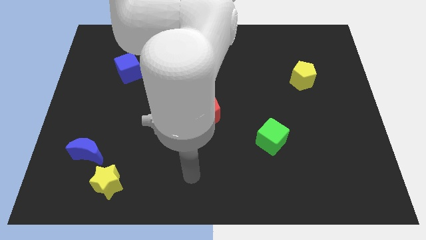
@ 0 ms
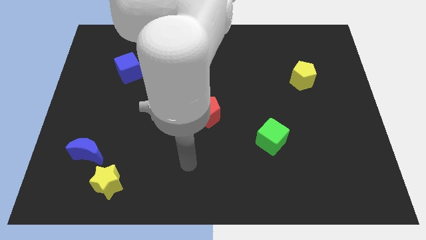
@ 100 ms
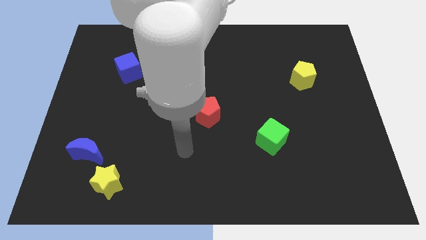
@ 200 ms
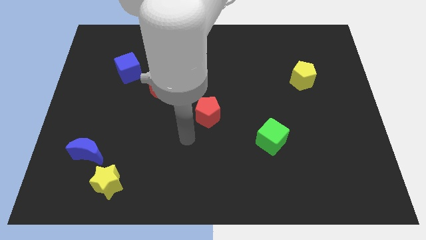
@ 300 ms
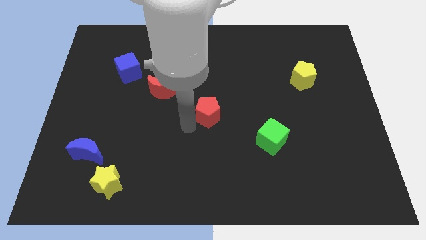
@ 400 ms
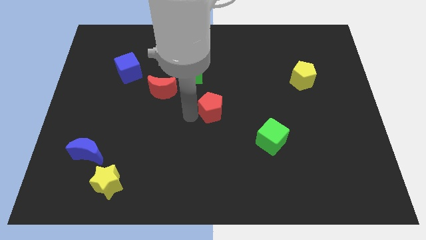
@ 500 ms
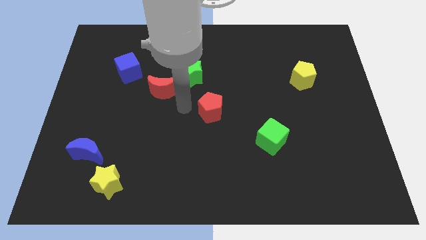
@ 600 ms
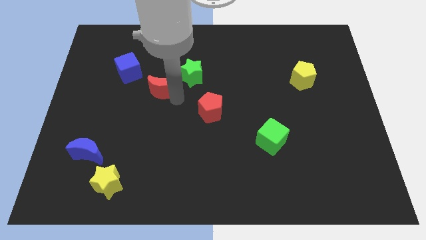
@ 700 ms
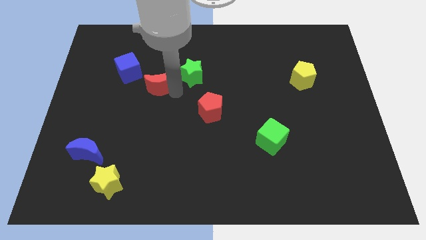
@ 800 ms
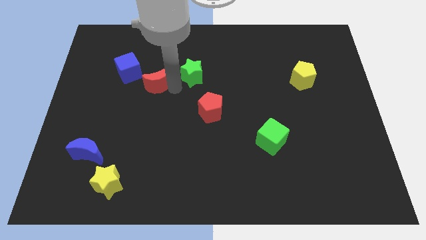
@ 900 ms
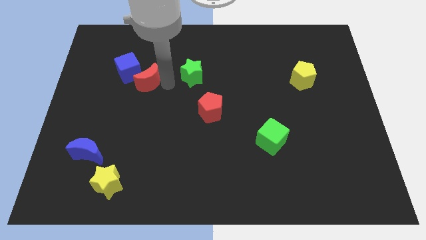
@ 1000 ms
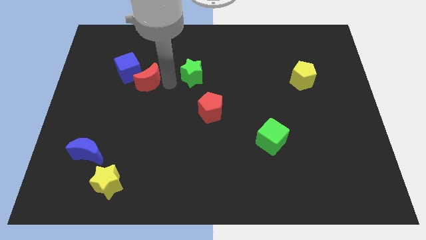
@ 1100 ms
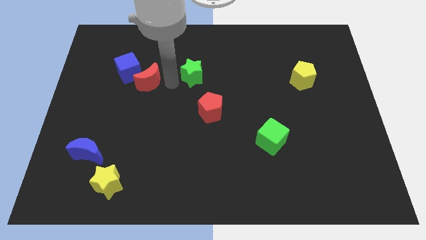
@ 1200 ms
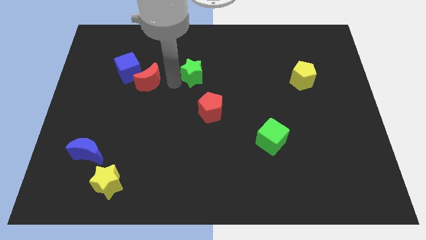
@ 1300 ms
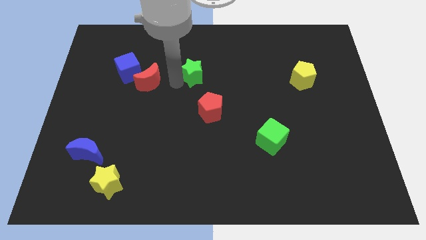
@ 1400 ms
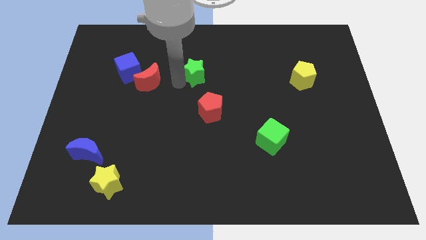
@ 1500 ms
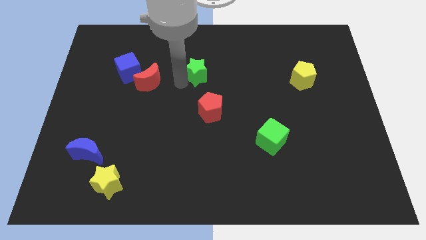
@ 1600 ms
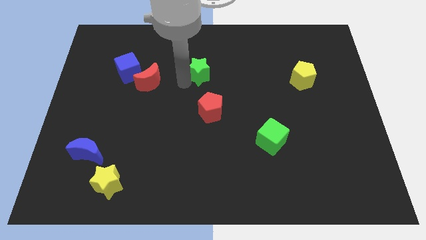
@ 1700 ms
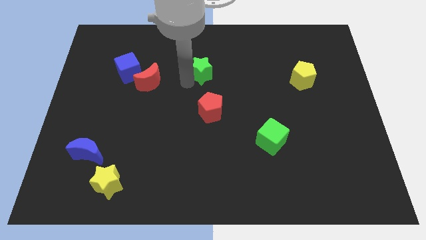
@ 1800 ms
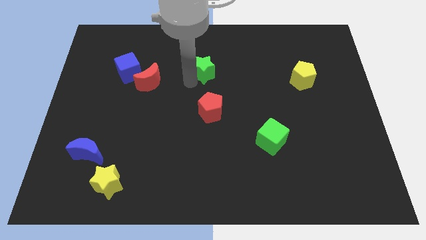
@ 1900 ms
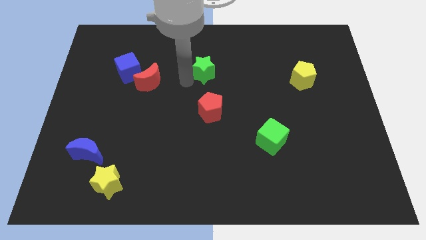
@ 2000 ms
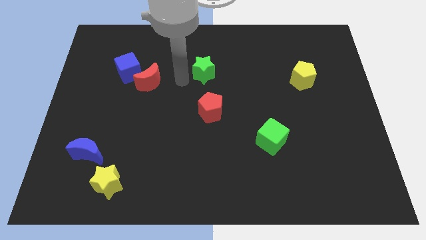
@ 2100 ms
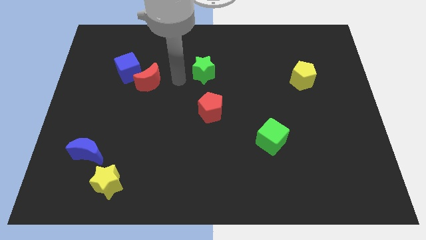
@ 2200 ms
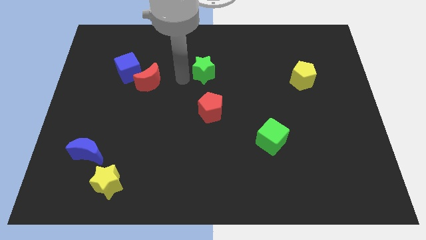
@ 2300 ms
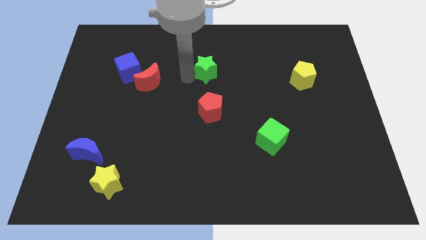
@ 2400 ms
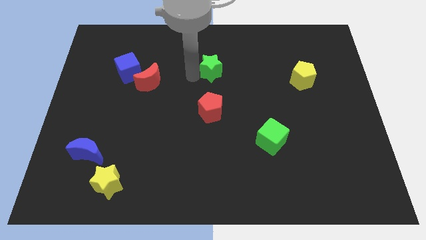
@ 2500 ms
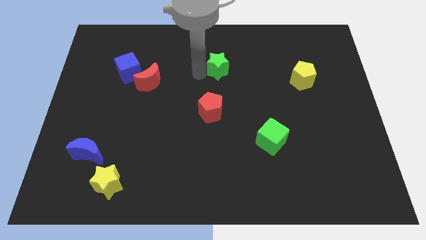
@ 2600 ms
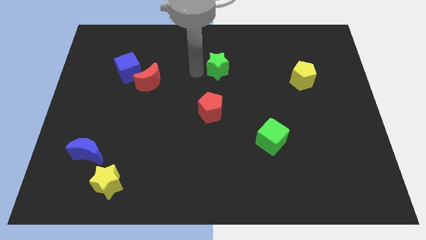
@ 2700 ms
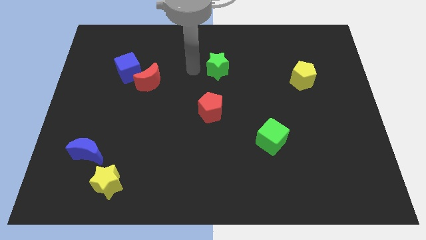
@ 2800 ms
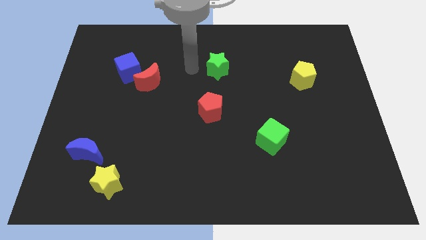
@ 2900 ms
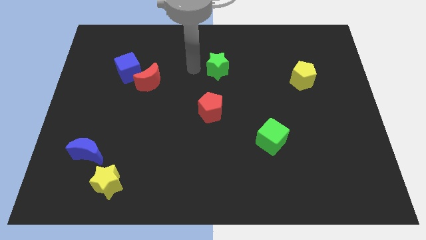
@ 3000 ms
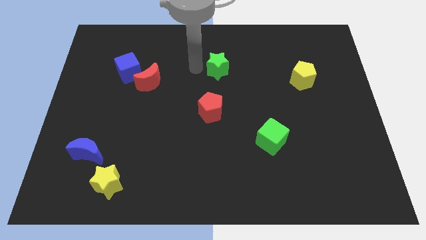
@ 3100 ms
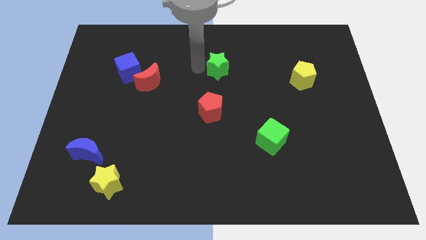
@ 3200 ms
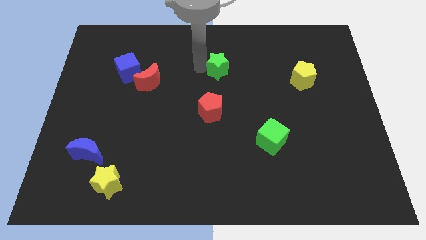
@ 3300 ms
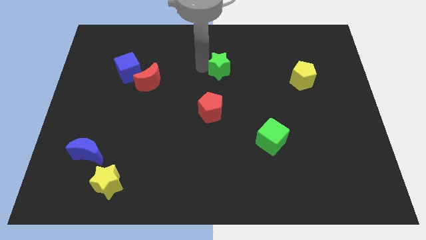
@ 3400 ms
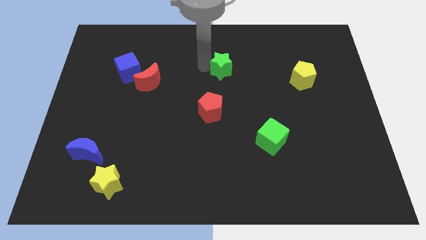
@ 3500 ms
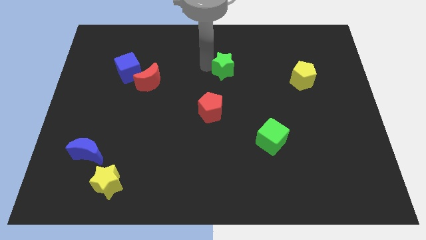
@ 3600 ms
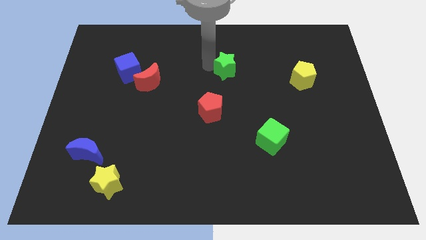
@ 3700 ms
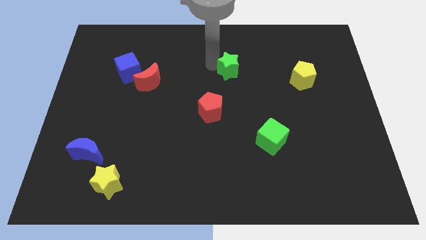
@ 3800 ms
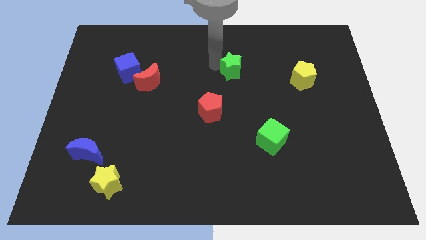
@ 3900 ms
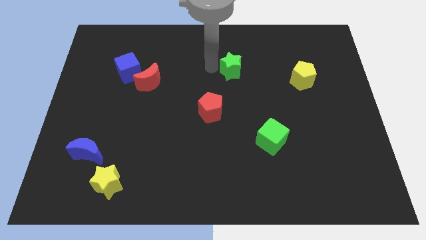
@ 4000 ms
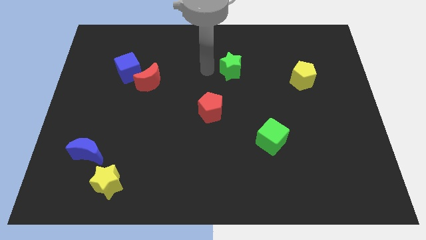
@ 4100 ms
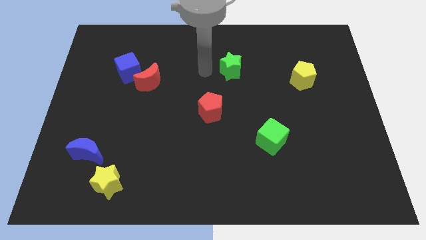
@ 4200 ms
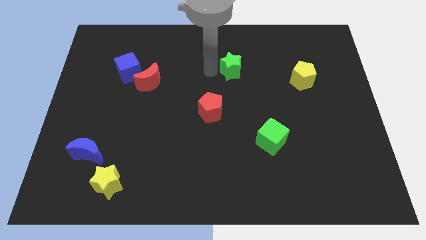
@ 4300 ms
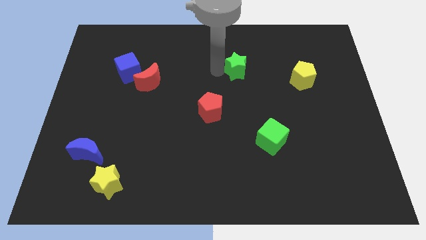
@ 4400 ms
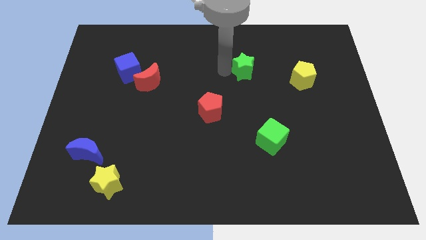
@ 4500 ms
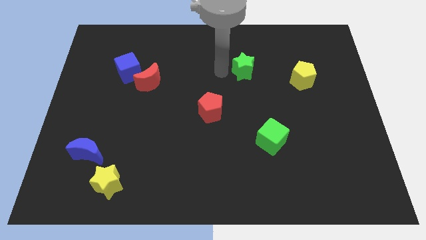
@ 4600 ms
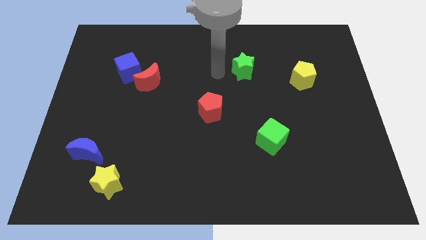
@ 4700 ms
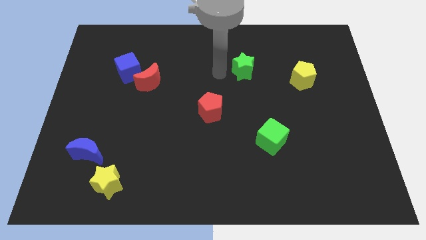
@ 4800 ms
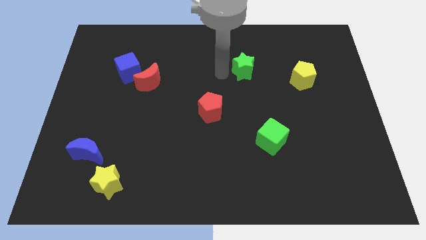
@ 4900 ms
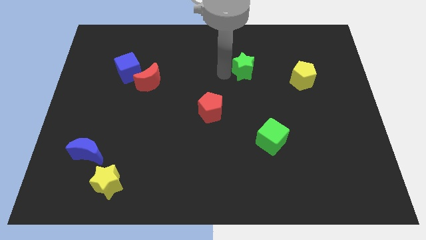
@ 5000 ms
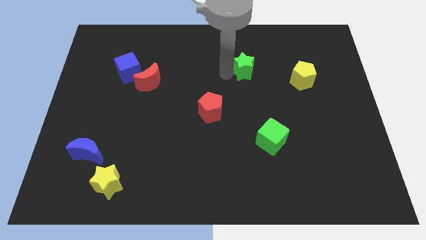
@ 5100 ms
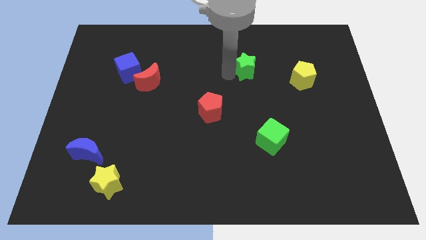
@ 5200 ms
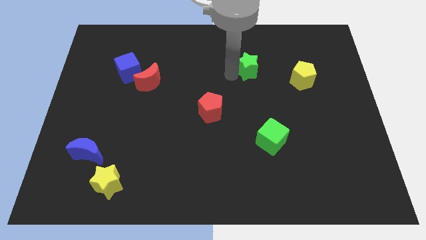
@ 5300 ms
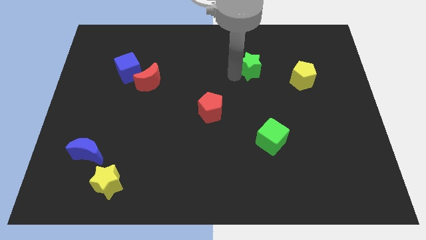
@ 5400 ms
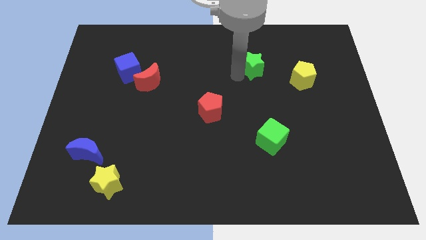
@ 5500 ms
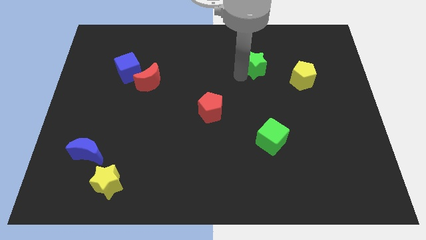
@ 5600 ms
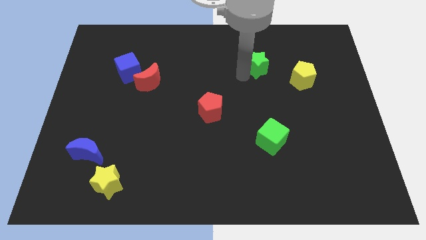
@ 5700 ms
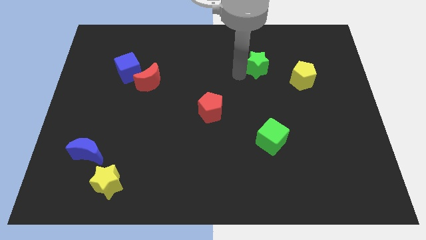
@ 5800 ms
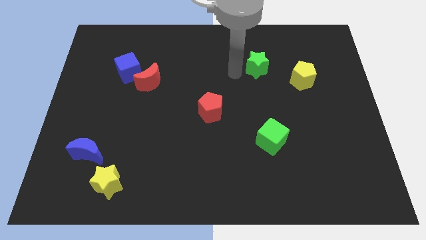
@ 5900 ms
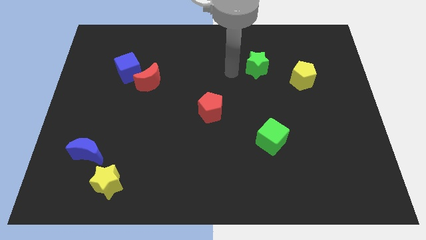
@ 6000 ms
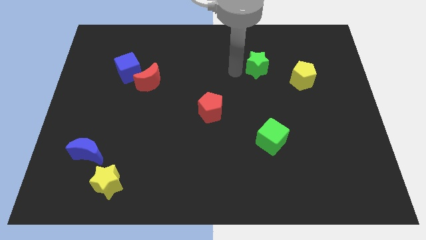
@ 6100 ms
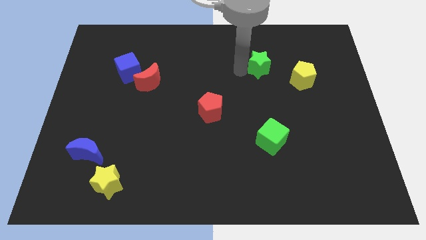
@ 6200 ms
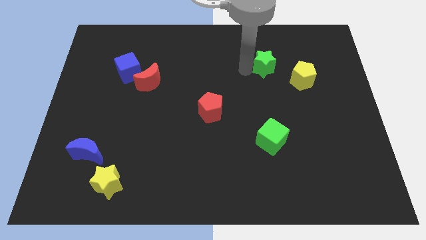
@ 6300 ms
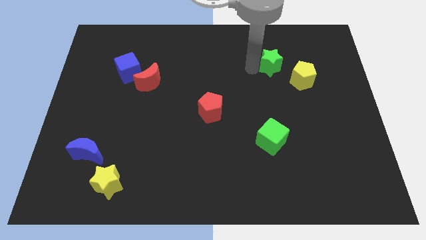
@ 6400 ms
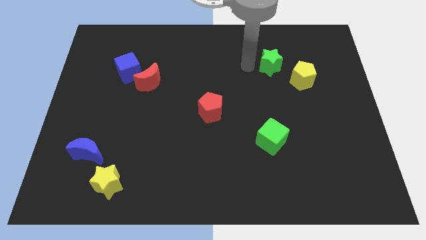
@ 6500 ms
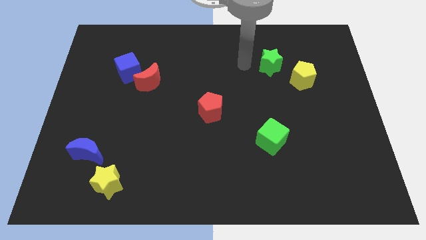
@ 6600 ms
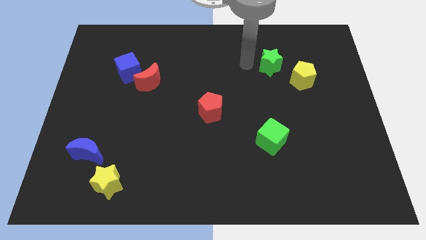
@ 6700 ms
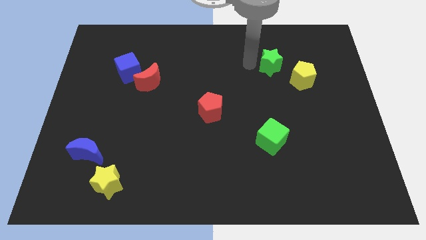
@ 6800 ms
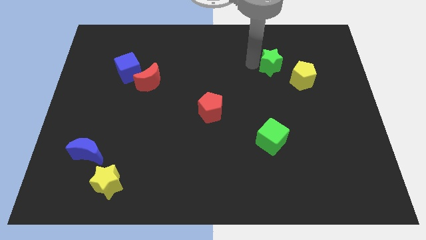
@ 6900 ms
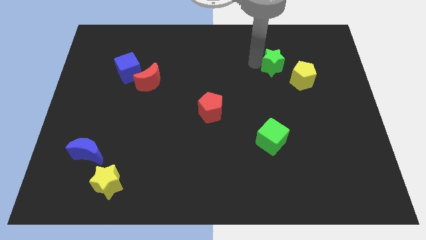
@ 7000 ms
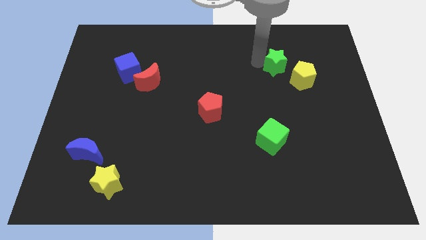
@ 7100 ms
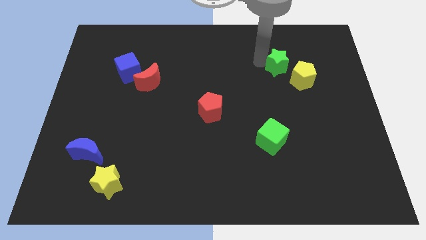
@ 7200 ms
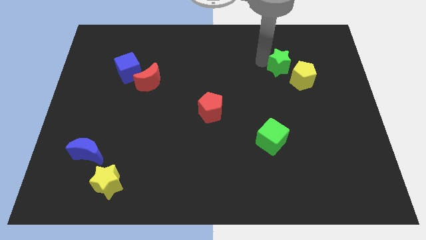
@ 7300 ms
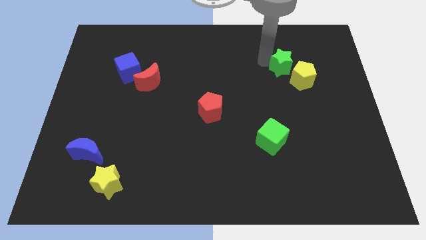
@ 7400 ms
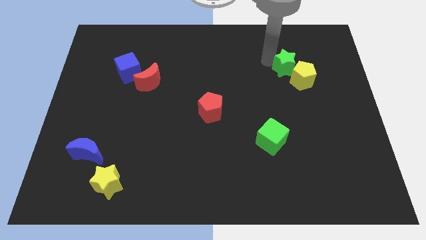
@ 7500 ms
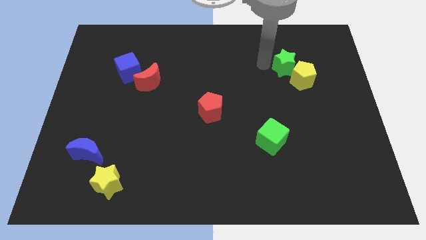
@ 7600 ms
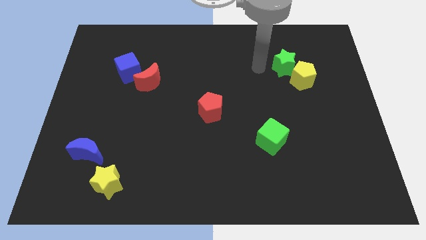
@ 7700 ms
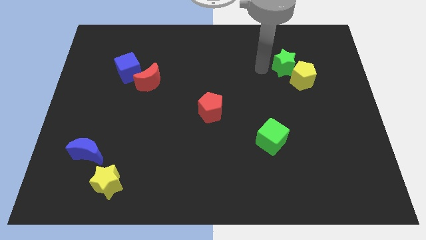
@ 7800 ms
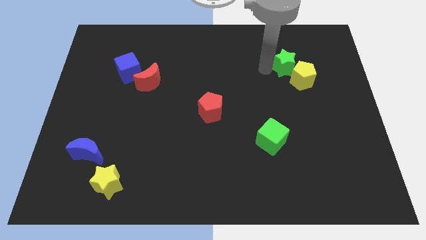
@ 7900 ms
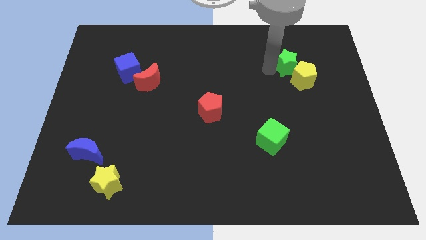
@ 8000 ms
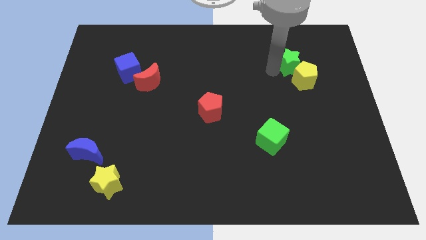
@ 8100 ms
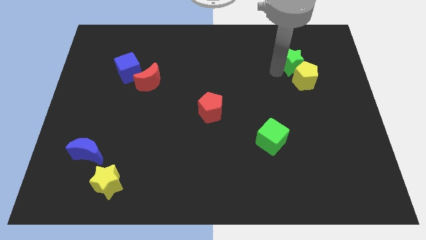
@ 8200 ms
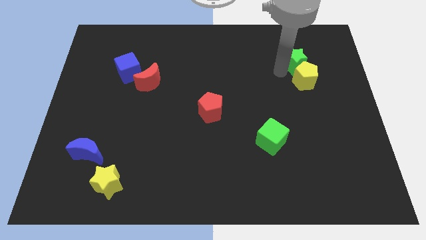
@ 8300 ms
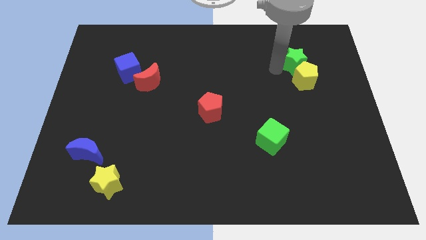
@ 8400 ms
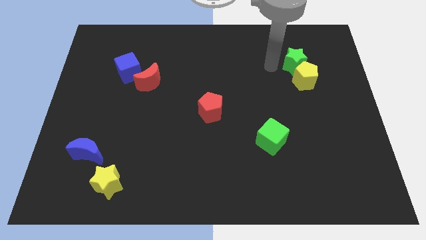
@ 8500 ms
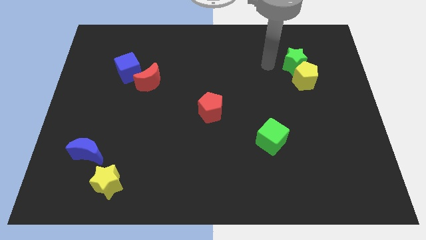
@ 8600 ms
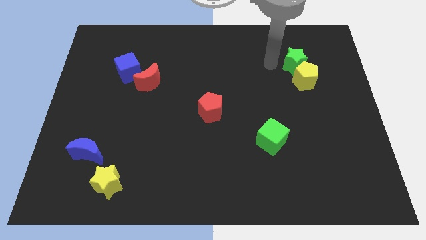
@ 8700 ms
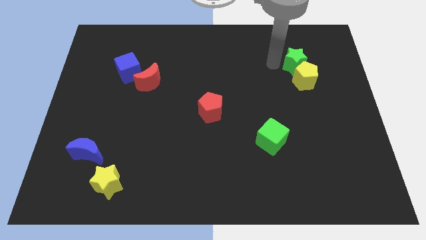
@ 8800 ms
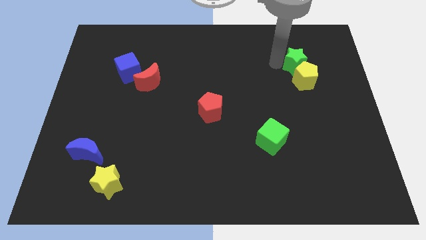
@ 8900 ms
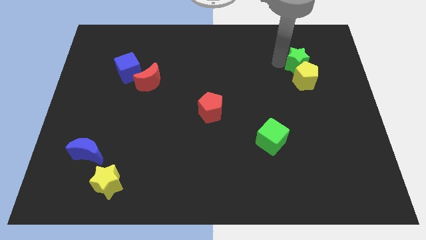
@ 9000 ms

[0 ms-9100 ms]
put the green star to the top right side of the yellow pentagon
